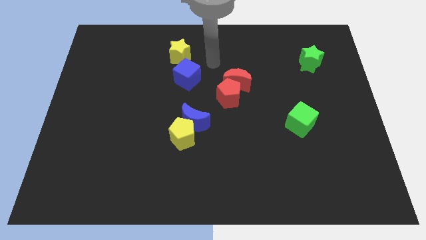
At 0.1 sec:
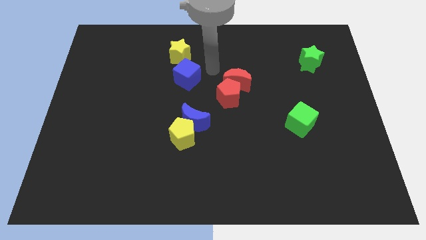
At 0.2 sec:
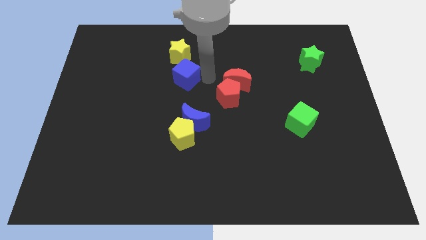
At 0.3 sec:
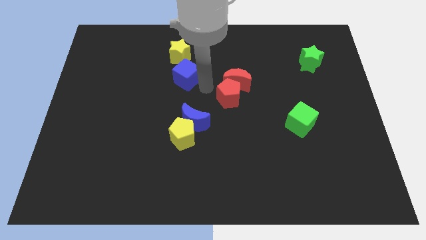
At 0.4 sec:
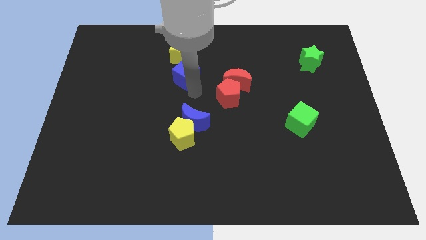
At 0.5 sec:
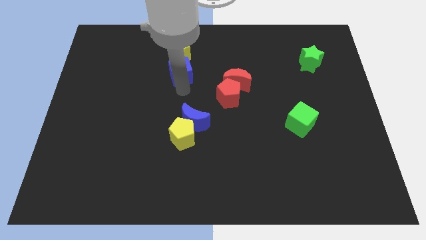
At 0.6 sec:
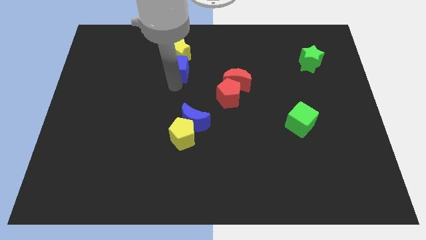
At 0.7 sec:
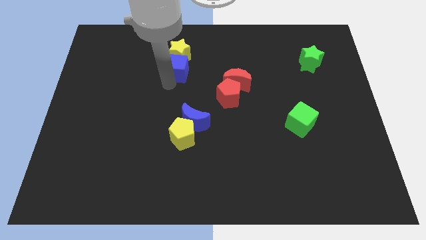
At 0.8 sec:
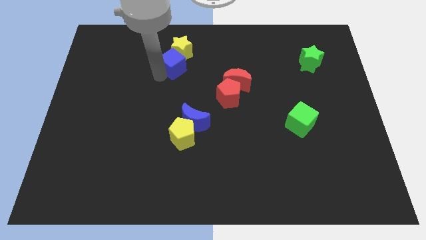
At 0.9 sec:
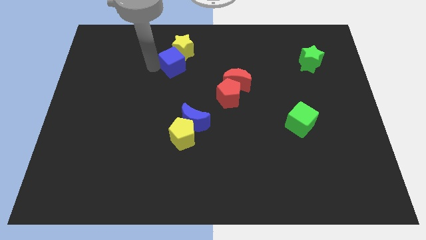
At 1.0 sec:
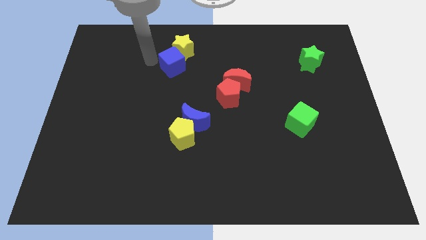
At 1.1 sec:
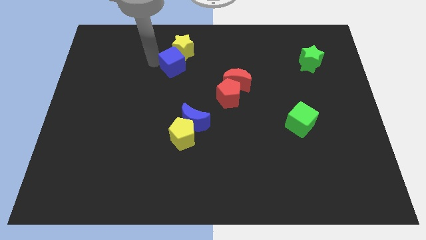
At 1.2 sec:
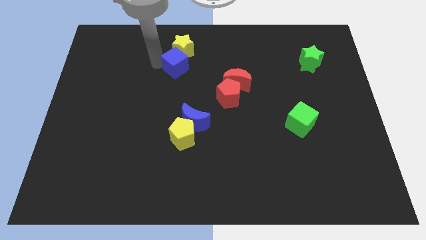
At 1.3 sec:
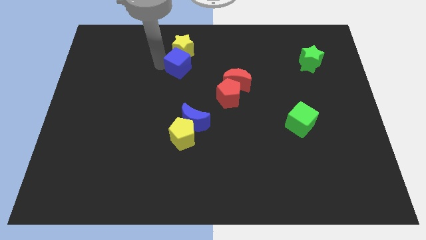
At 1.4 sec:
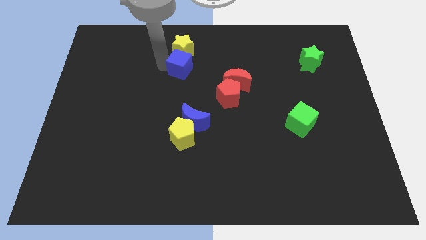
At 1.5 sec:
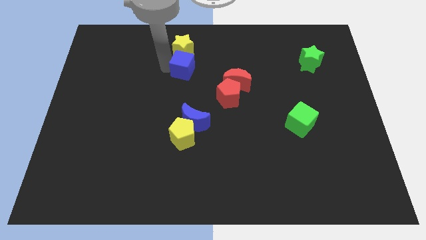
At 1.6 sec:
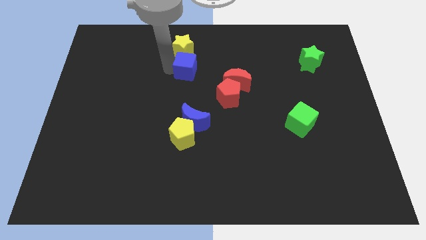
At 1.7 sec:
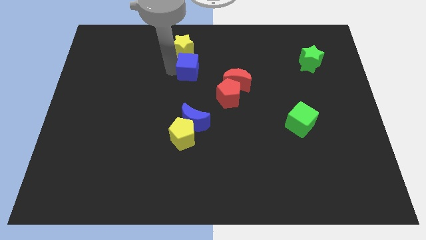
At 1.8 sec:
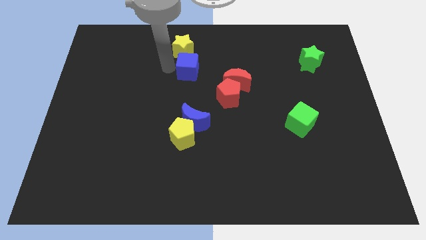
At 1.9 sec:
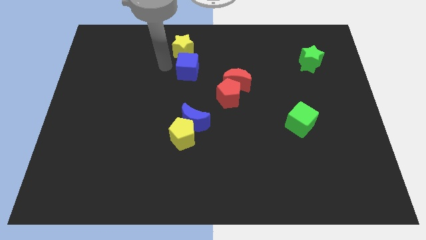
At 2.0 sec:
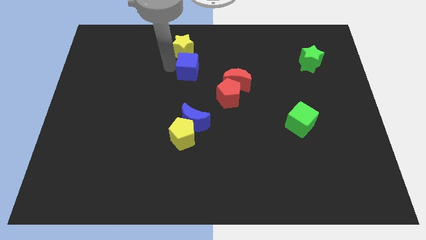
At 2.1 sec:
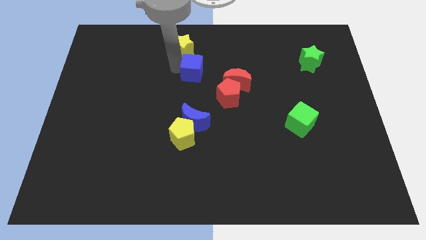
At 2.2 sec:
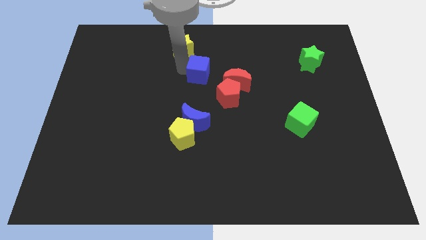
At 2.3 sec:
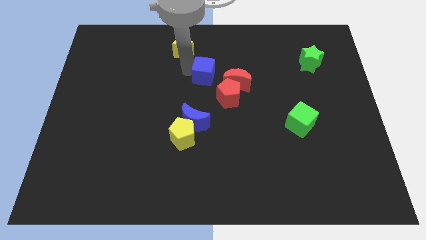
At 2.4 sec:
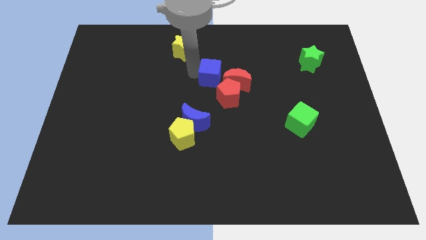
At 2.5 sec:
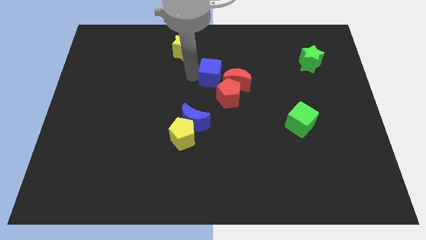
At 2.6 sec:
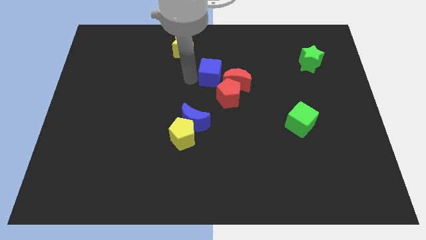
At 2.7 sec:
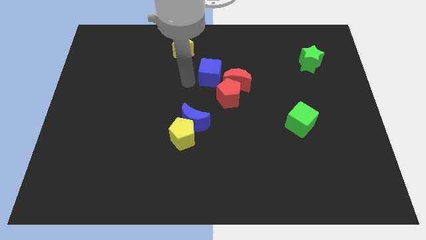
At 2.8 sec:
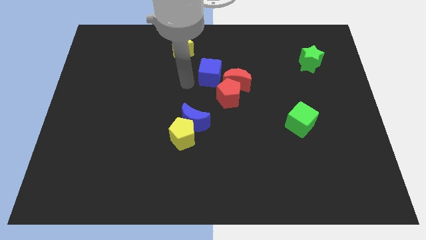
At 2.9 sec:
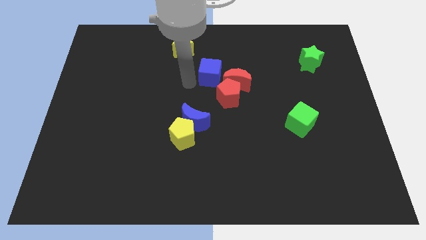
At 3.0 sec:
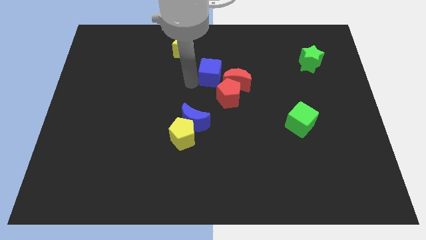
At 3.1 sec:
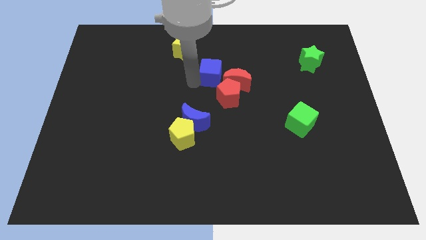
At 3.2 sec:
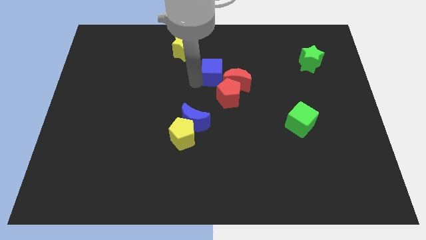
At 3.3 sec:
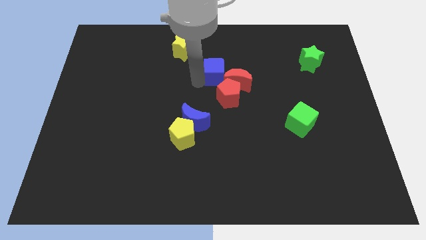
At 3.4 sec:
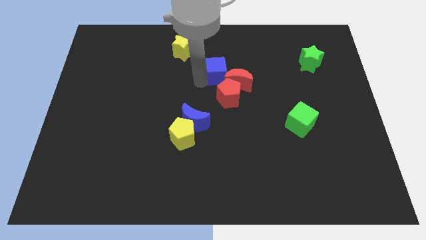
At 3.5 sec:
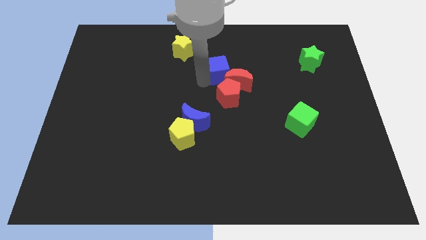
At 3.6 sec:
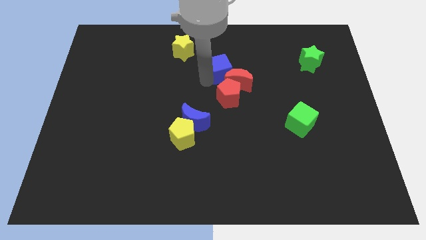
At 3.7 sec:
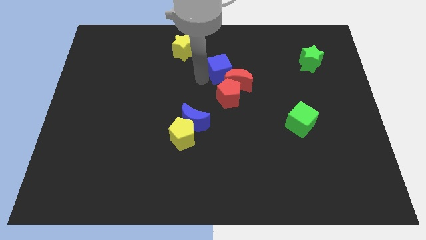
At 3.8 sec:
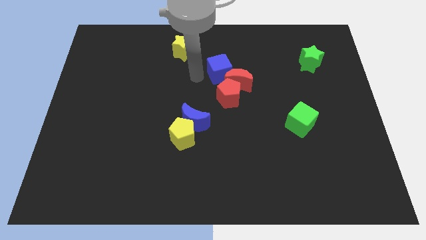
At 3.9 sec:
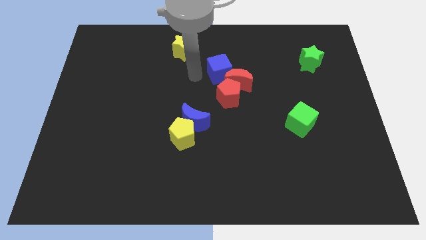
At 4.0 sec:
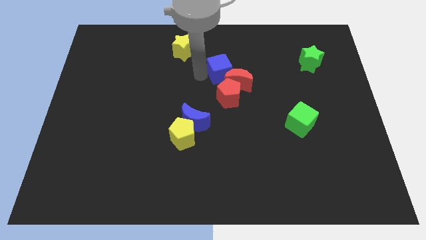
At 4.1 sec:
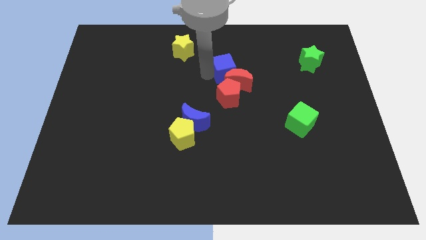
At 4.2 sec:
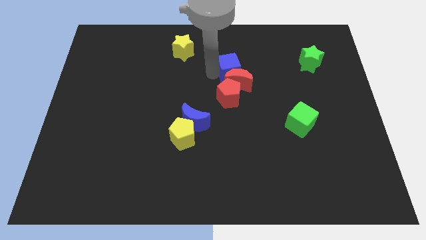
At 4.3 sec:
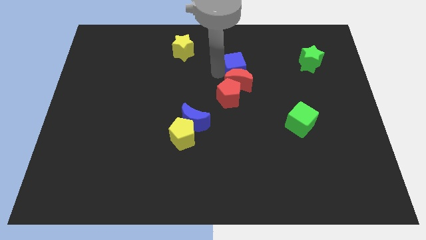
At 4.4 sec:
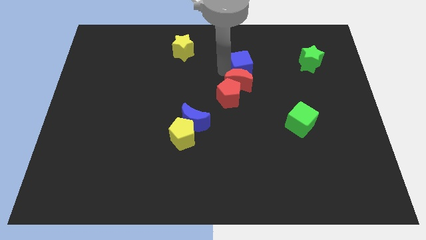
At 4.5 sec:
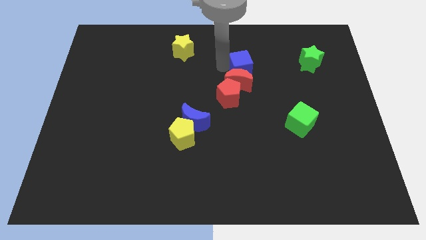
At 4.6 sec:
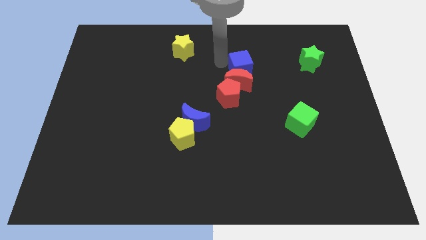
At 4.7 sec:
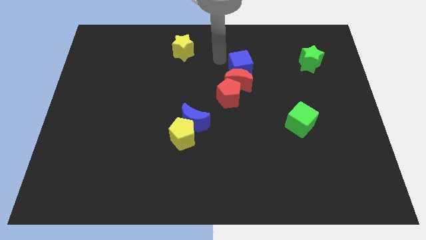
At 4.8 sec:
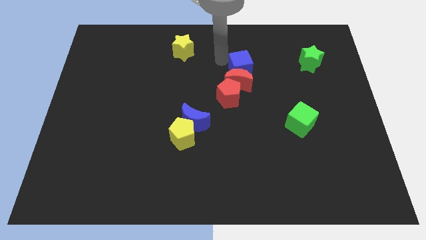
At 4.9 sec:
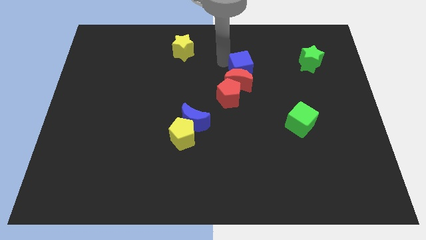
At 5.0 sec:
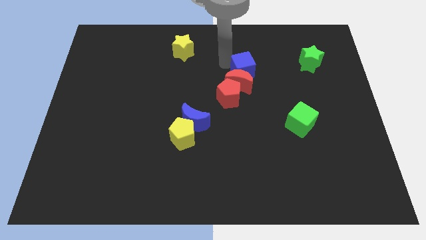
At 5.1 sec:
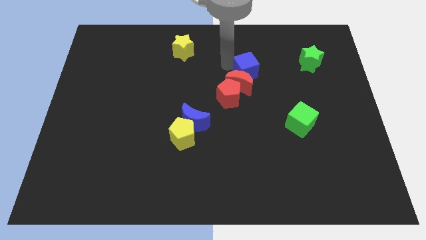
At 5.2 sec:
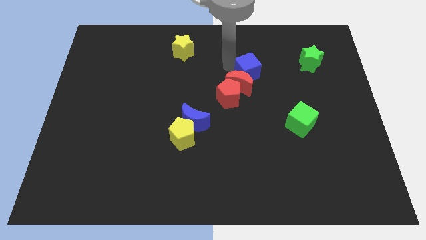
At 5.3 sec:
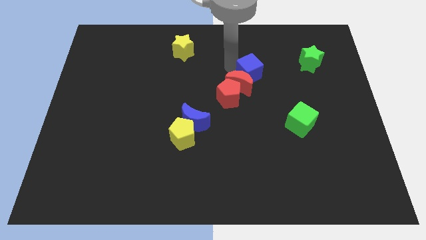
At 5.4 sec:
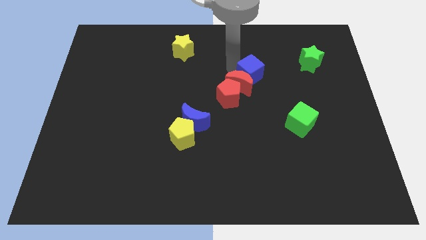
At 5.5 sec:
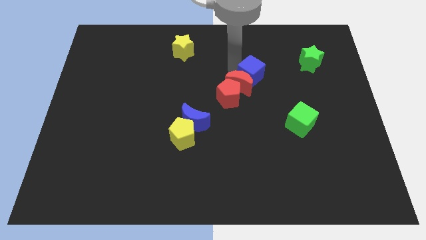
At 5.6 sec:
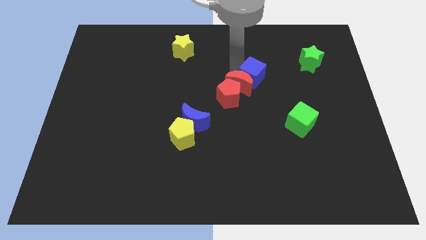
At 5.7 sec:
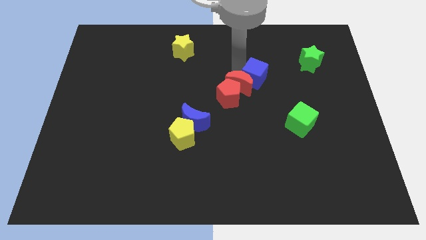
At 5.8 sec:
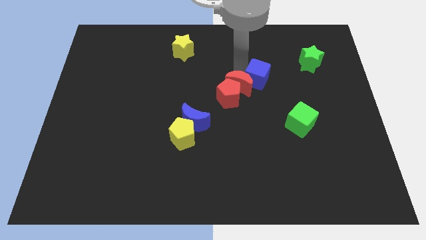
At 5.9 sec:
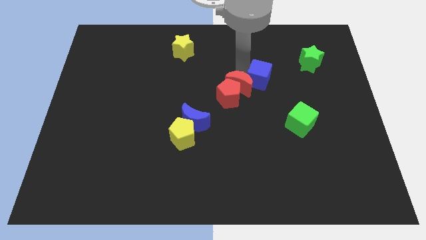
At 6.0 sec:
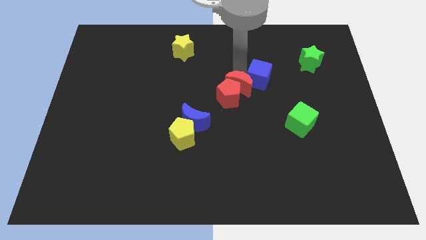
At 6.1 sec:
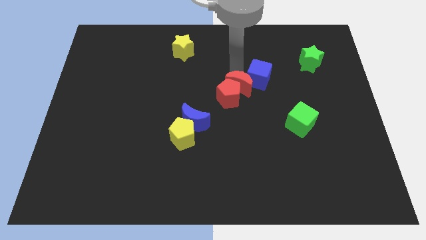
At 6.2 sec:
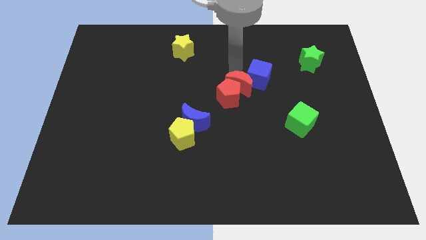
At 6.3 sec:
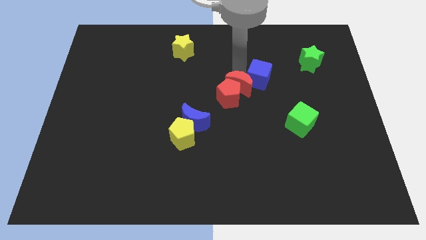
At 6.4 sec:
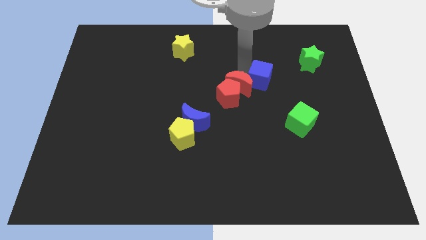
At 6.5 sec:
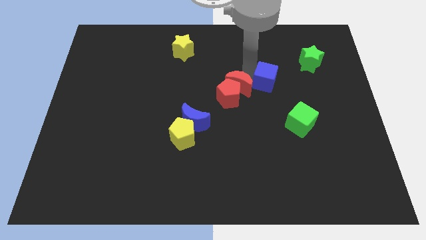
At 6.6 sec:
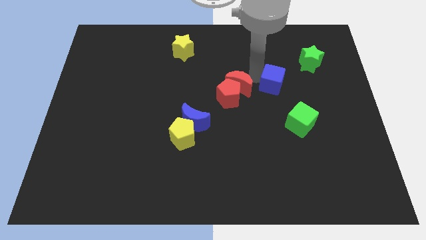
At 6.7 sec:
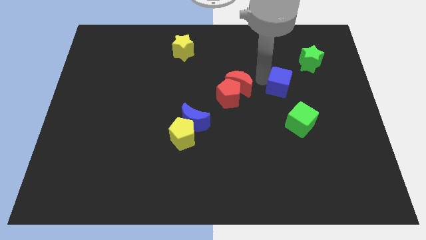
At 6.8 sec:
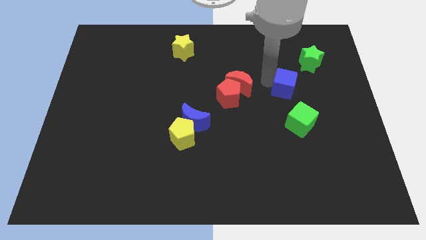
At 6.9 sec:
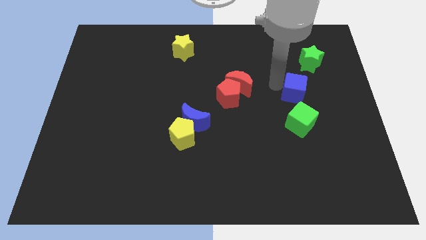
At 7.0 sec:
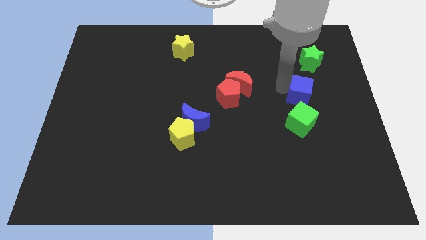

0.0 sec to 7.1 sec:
put the blue cube to the bottom of the green star

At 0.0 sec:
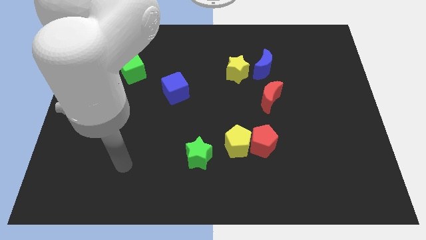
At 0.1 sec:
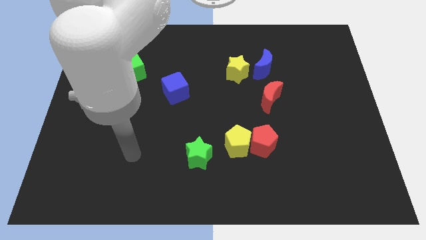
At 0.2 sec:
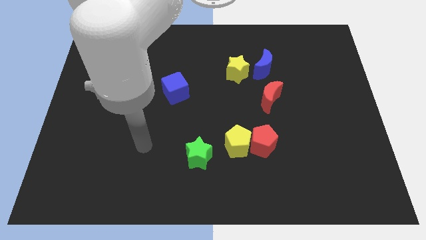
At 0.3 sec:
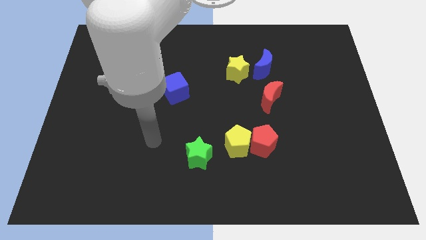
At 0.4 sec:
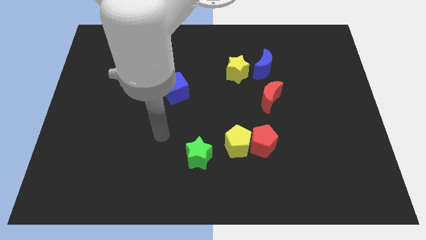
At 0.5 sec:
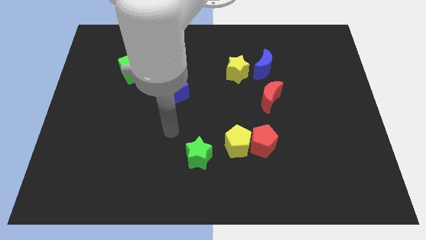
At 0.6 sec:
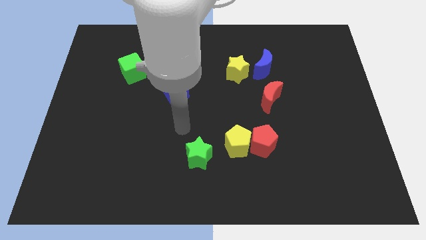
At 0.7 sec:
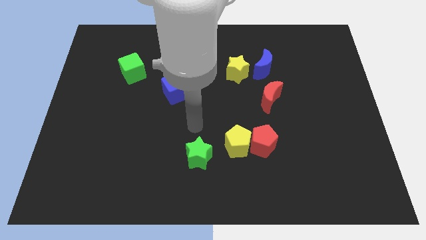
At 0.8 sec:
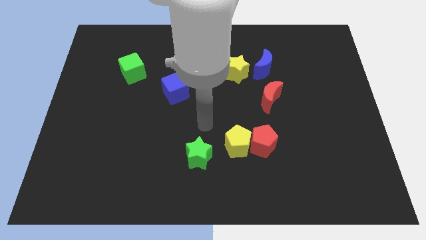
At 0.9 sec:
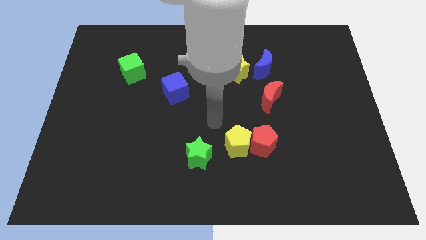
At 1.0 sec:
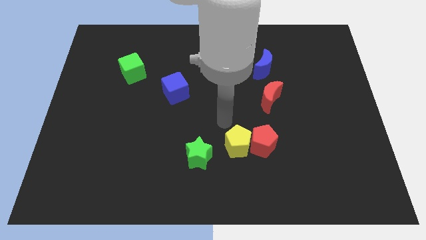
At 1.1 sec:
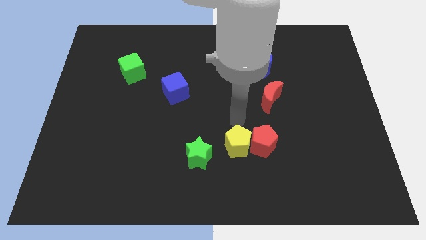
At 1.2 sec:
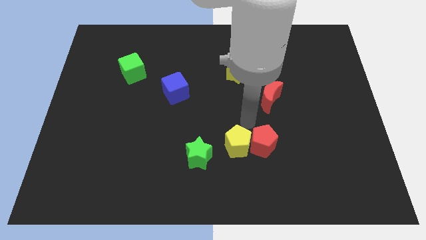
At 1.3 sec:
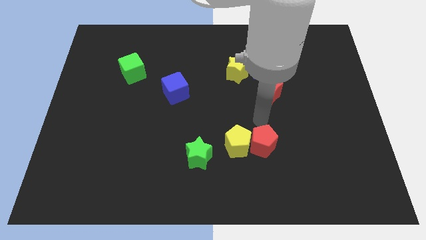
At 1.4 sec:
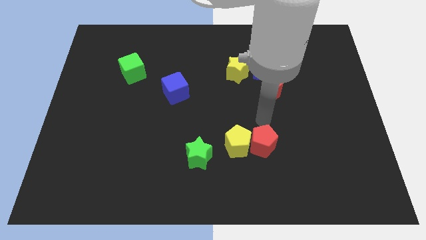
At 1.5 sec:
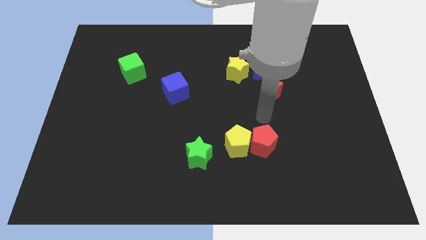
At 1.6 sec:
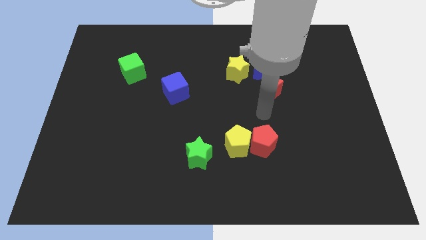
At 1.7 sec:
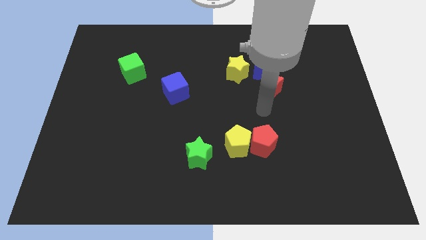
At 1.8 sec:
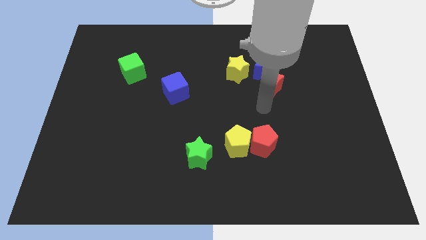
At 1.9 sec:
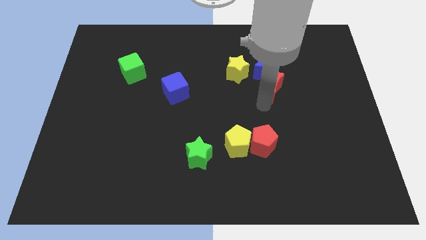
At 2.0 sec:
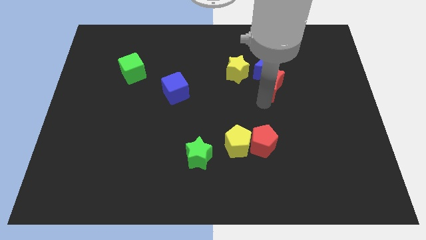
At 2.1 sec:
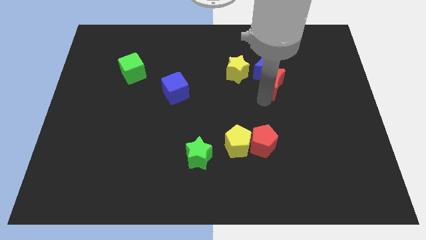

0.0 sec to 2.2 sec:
move the red moon to the right of the yellow star
